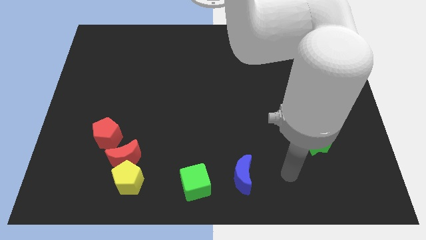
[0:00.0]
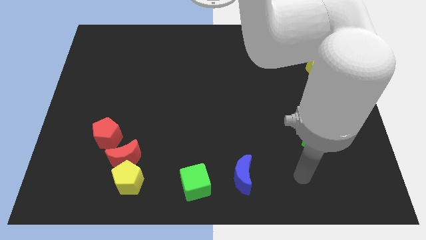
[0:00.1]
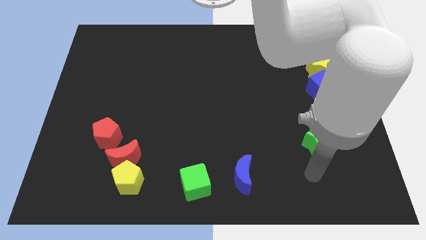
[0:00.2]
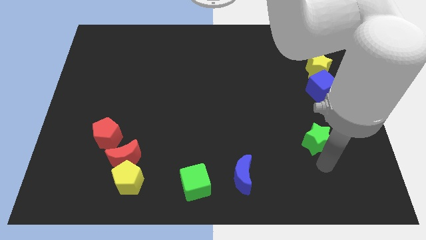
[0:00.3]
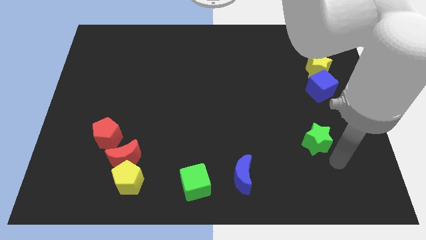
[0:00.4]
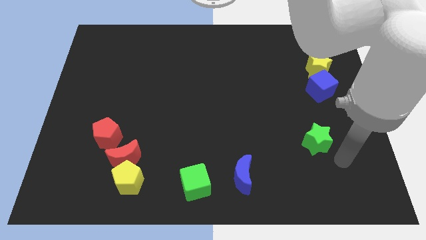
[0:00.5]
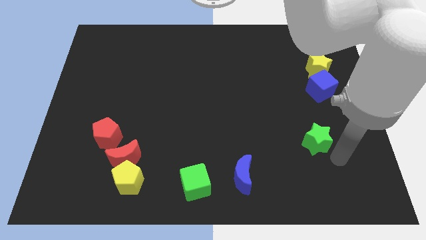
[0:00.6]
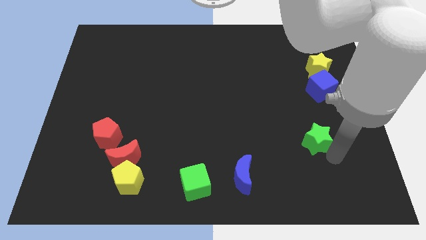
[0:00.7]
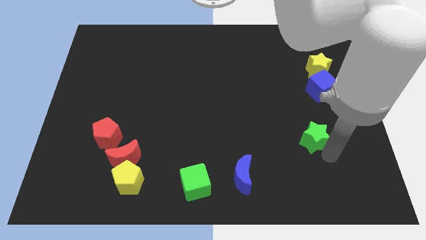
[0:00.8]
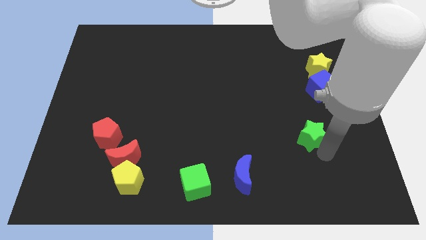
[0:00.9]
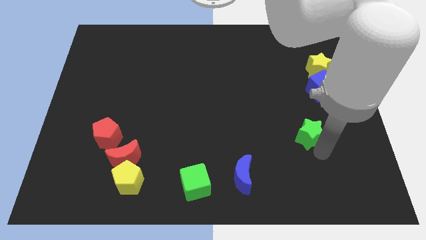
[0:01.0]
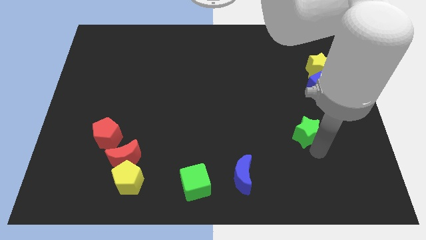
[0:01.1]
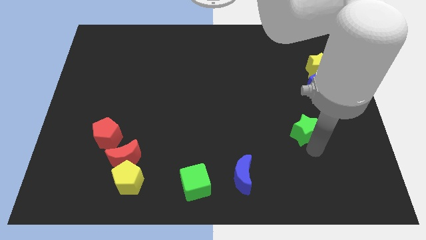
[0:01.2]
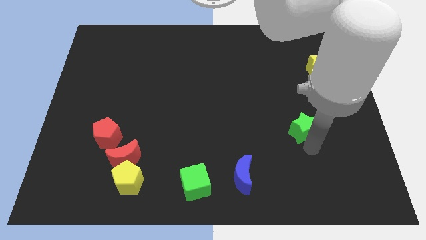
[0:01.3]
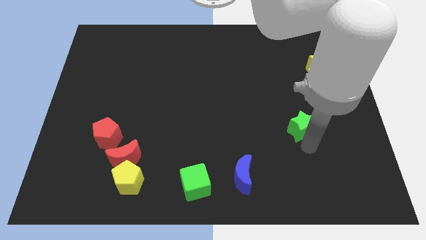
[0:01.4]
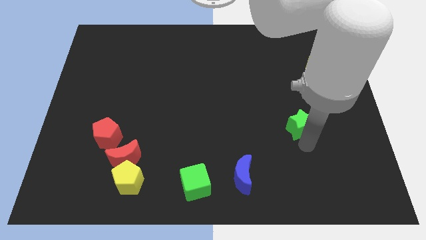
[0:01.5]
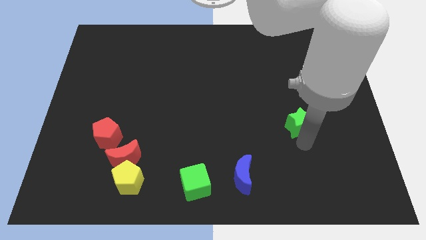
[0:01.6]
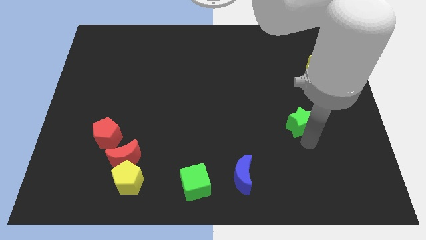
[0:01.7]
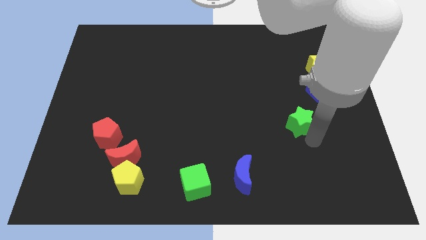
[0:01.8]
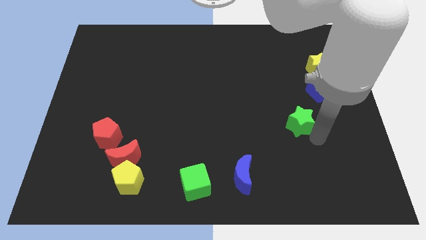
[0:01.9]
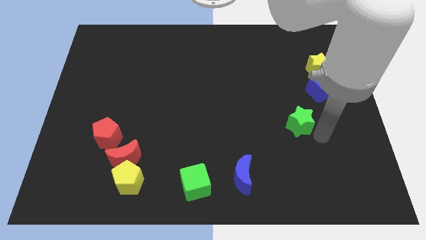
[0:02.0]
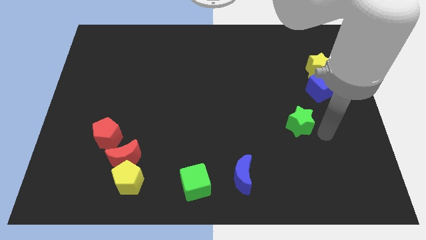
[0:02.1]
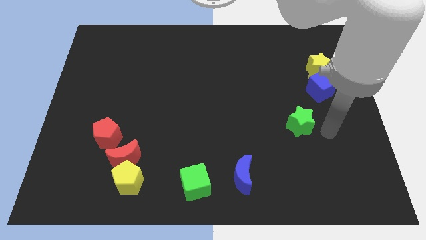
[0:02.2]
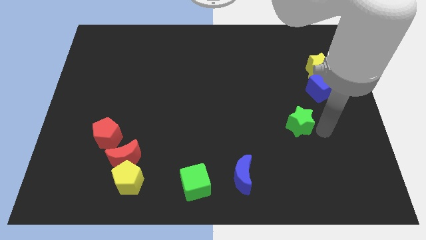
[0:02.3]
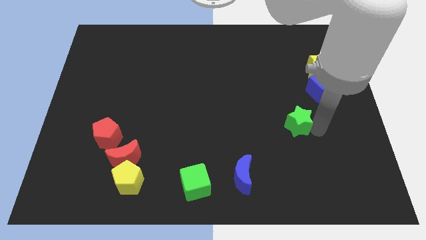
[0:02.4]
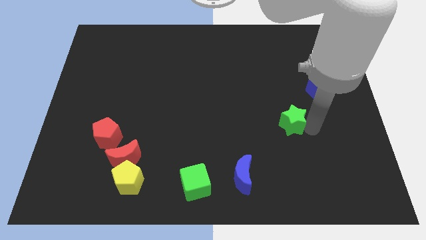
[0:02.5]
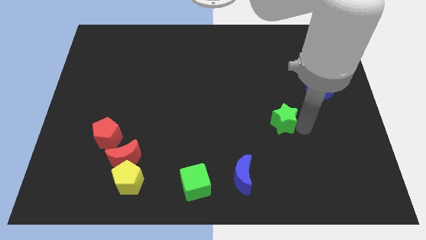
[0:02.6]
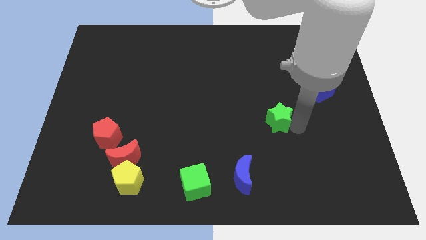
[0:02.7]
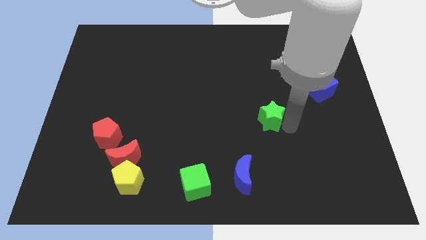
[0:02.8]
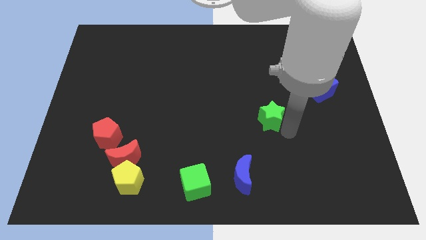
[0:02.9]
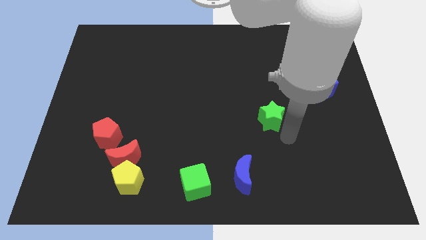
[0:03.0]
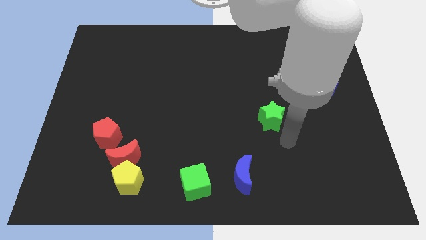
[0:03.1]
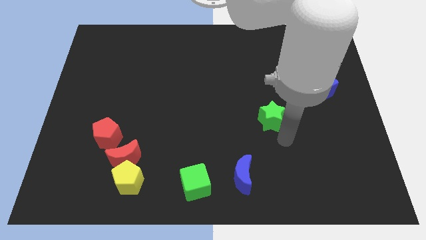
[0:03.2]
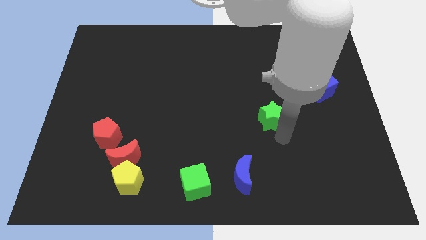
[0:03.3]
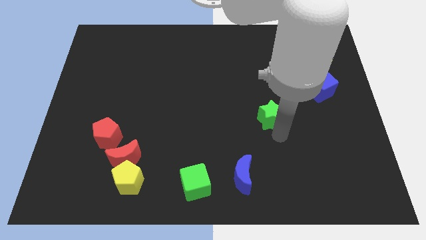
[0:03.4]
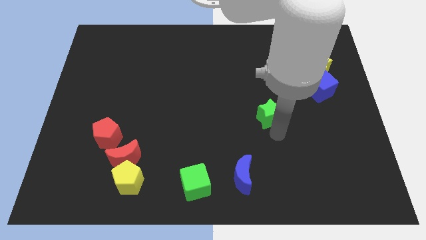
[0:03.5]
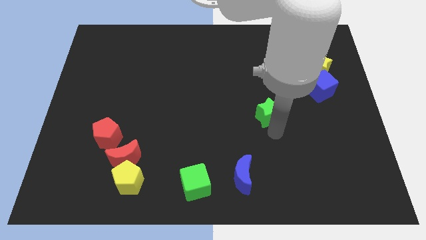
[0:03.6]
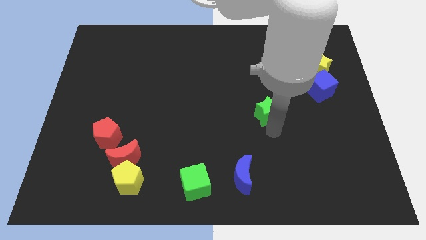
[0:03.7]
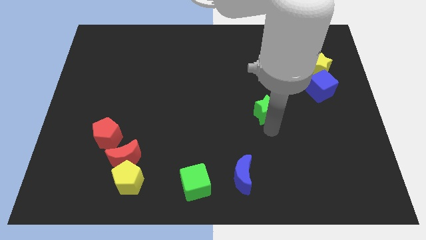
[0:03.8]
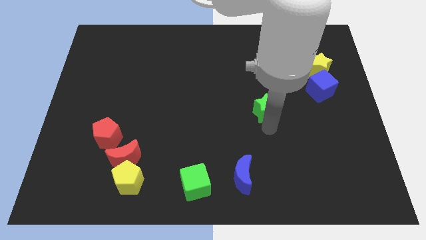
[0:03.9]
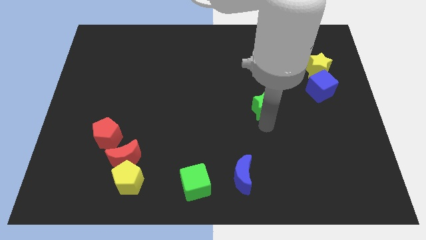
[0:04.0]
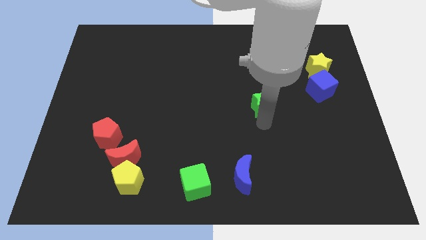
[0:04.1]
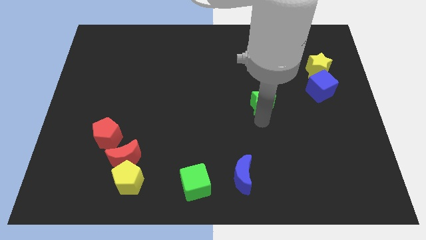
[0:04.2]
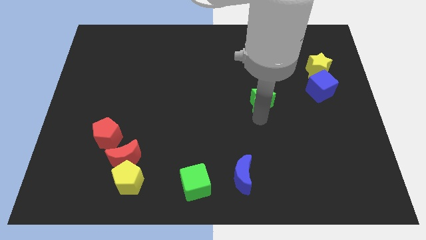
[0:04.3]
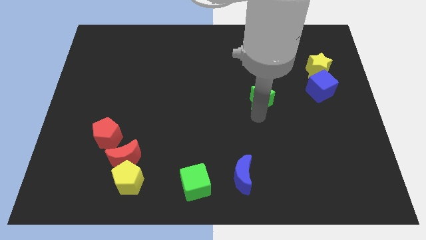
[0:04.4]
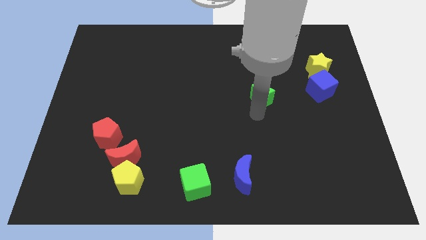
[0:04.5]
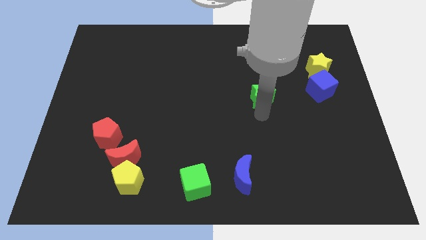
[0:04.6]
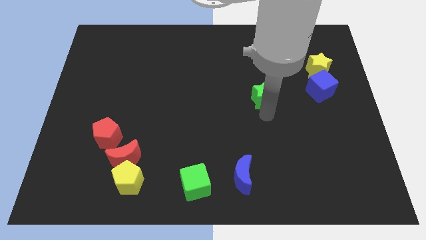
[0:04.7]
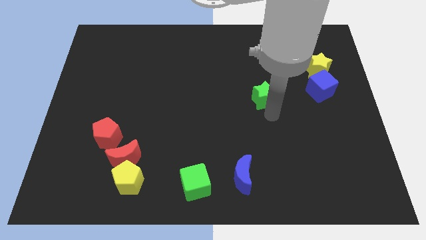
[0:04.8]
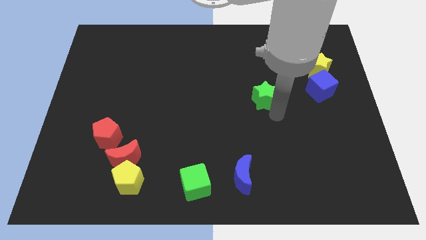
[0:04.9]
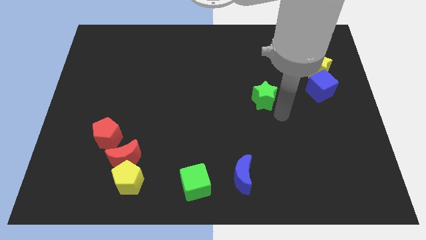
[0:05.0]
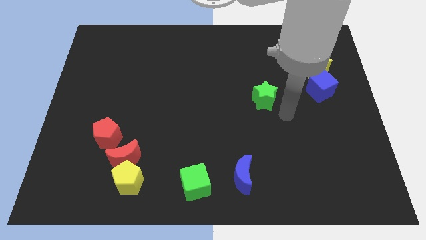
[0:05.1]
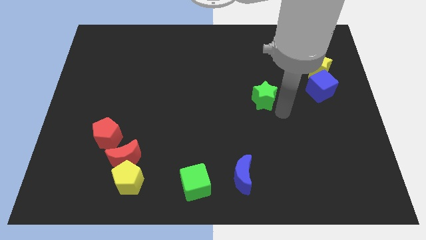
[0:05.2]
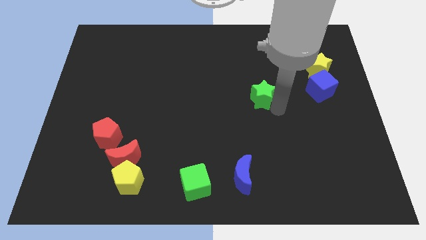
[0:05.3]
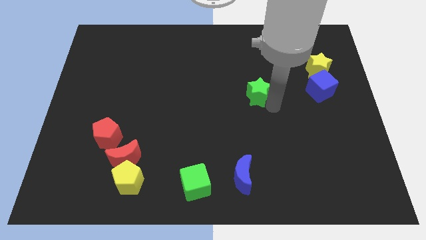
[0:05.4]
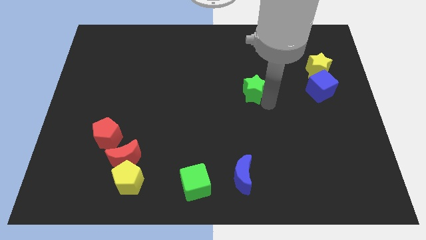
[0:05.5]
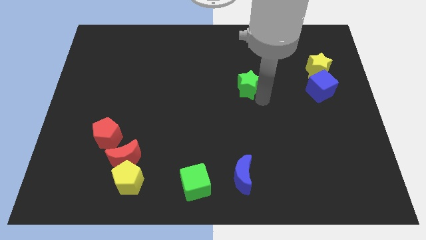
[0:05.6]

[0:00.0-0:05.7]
push the green star up and then left

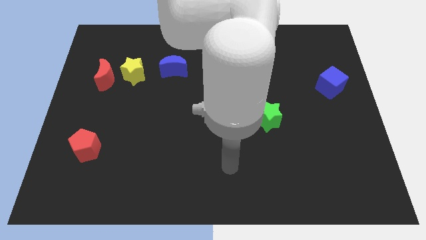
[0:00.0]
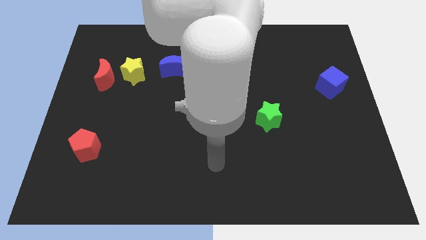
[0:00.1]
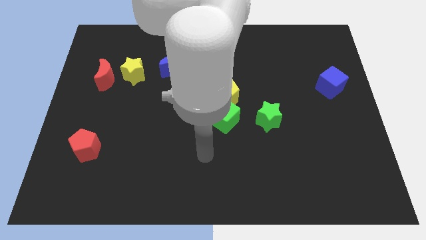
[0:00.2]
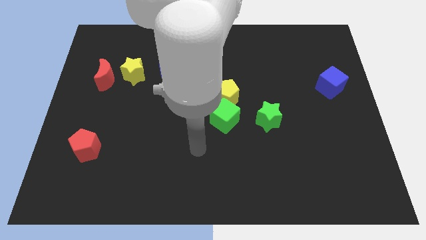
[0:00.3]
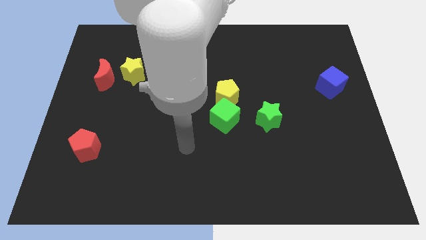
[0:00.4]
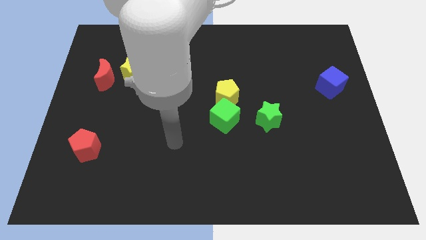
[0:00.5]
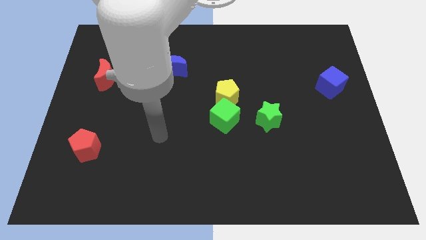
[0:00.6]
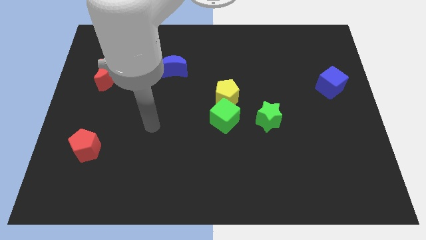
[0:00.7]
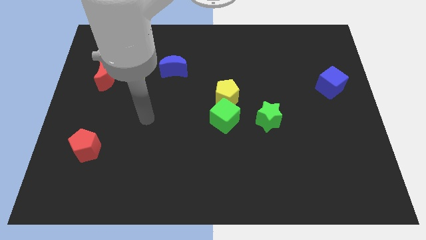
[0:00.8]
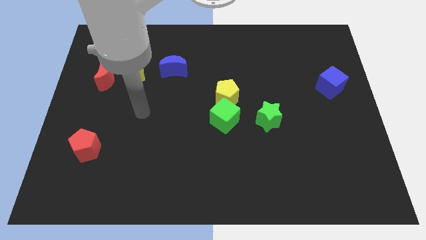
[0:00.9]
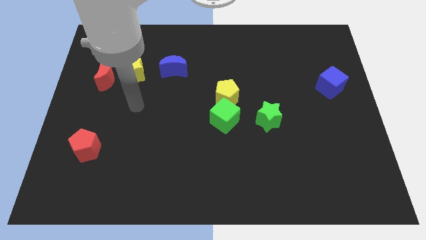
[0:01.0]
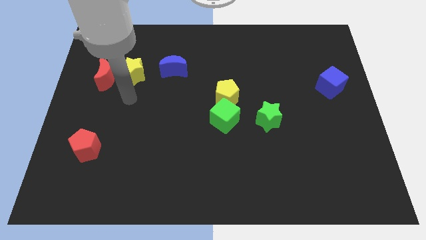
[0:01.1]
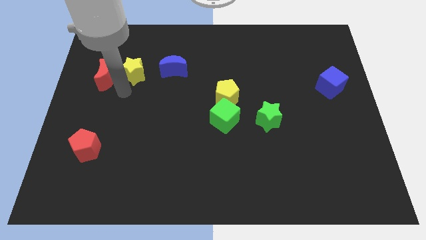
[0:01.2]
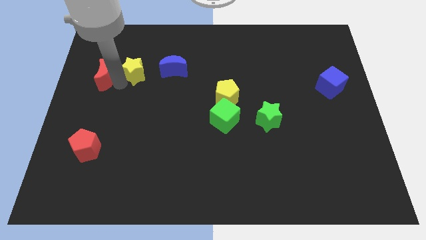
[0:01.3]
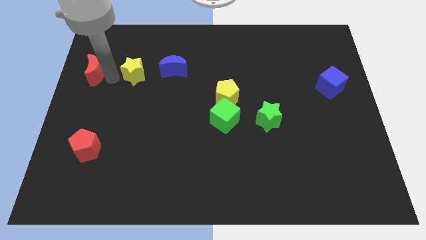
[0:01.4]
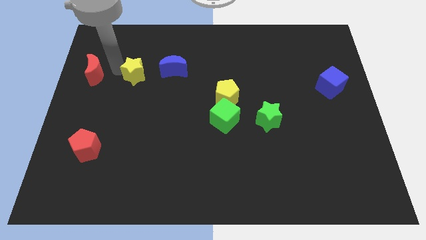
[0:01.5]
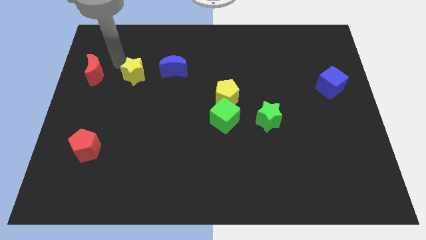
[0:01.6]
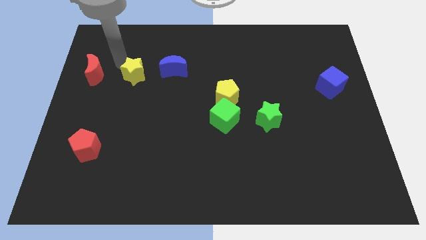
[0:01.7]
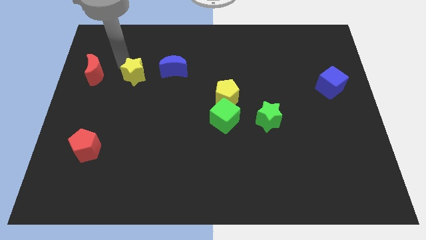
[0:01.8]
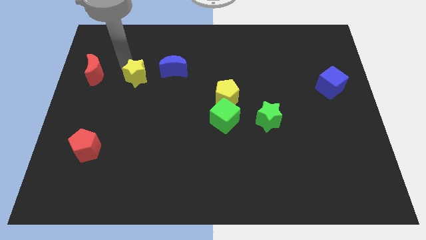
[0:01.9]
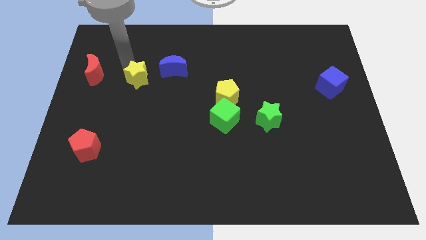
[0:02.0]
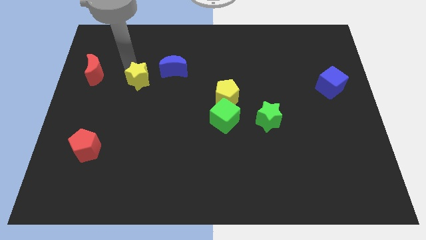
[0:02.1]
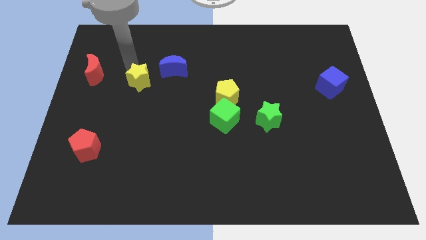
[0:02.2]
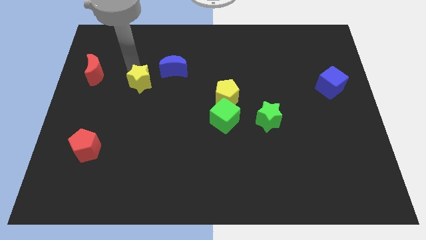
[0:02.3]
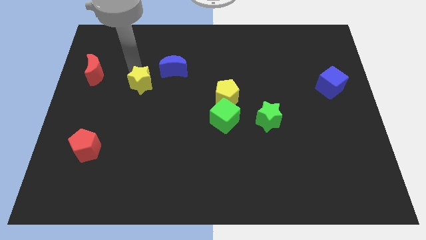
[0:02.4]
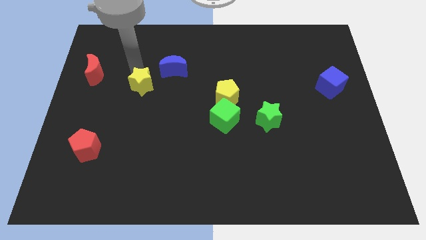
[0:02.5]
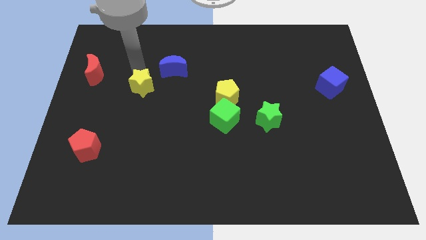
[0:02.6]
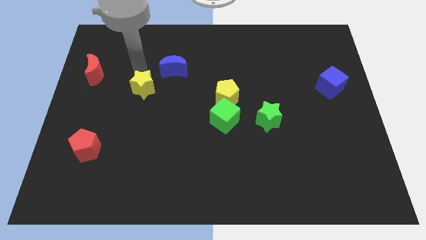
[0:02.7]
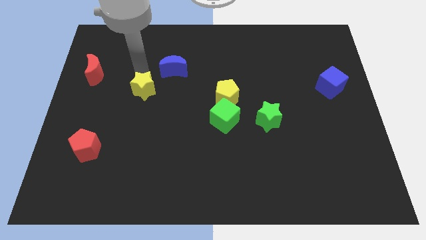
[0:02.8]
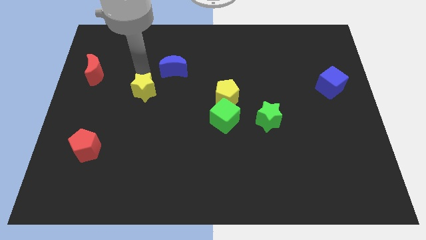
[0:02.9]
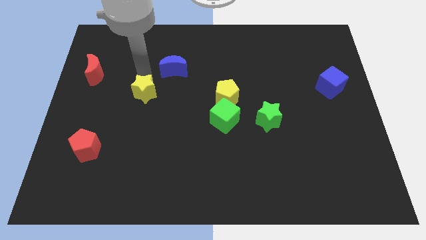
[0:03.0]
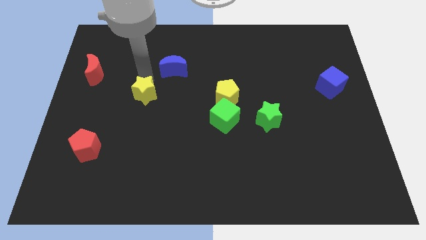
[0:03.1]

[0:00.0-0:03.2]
slightly slide the yellow star downwards and right
